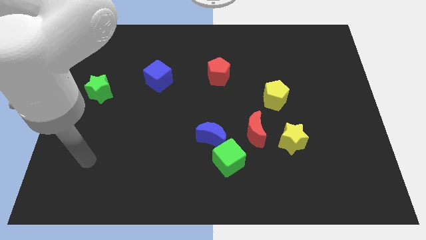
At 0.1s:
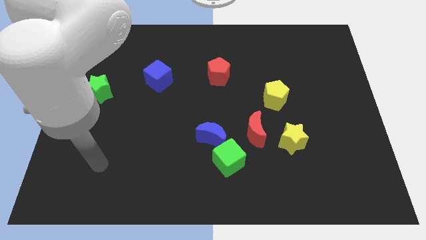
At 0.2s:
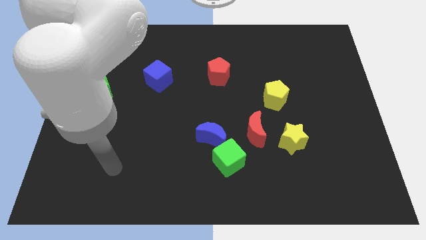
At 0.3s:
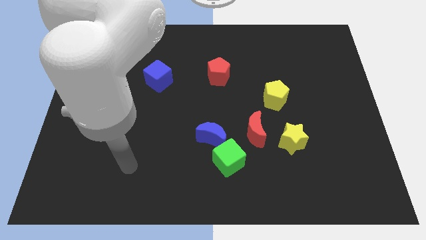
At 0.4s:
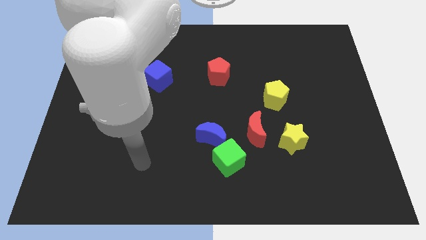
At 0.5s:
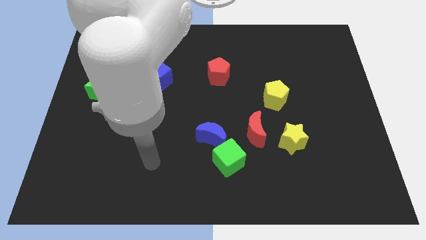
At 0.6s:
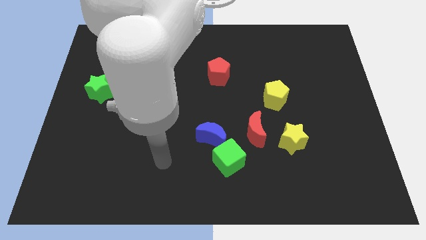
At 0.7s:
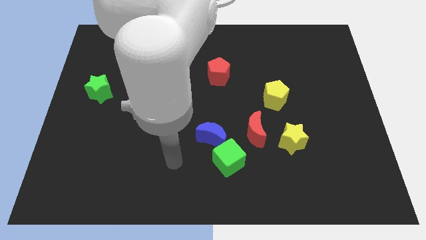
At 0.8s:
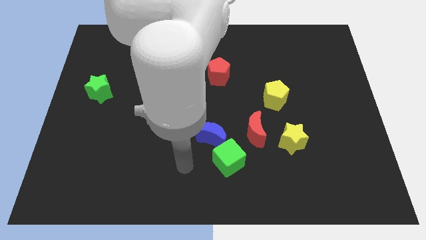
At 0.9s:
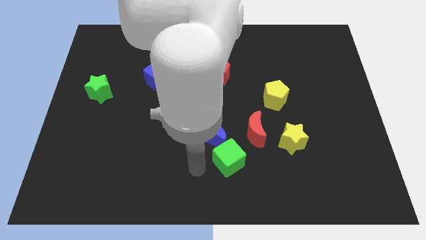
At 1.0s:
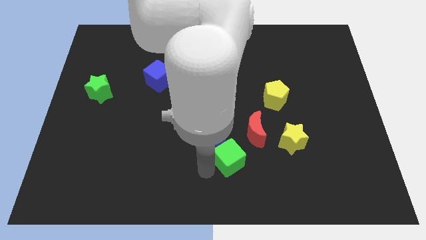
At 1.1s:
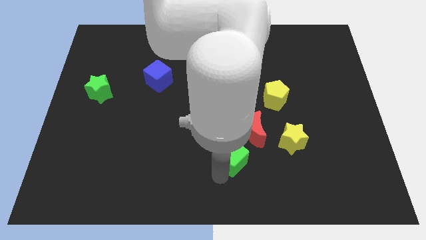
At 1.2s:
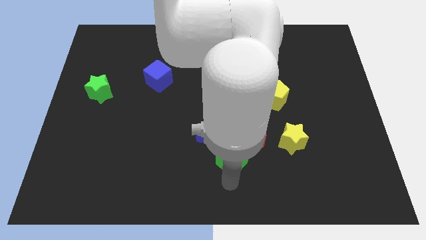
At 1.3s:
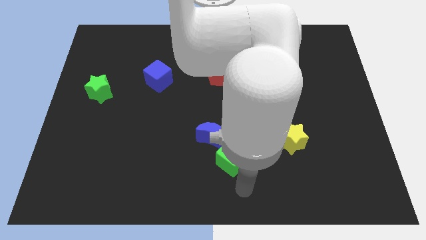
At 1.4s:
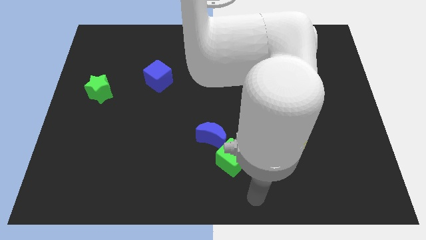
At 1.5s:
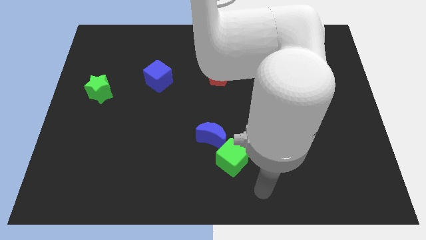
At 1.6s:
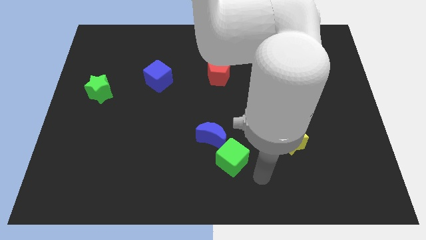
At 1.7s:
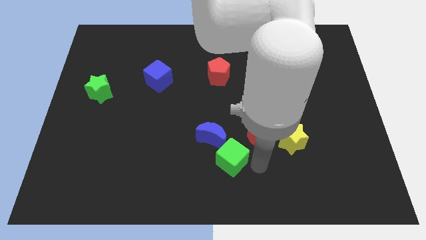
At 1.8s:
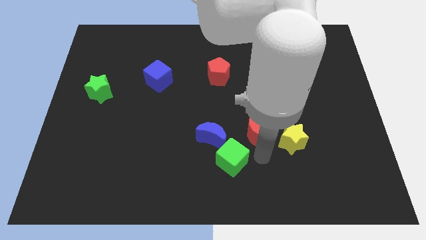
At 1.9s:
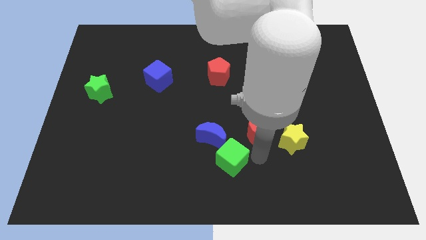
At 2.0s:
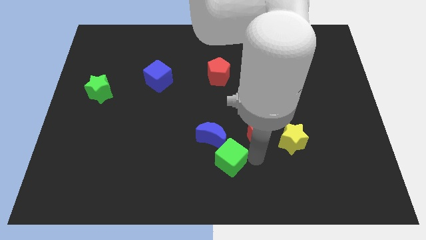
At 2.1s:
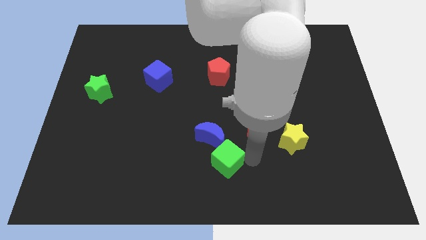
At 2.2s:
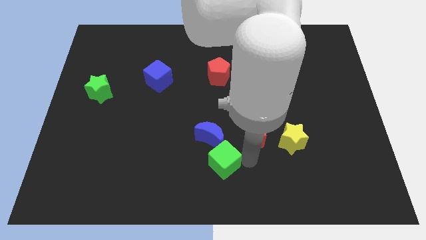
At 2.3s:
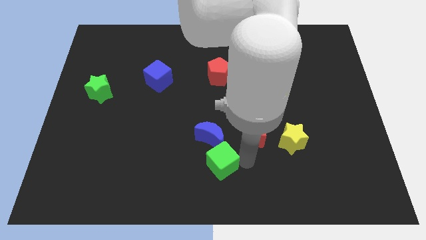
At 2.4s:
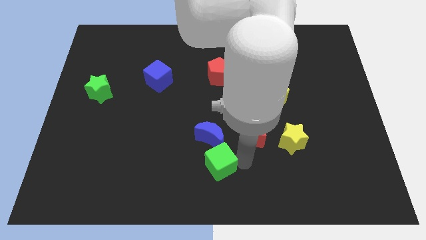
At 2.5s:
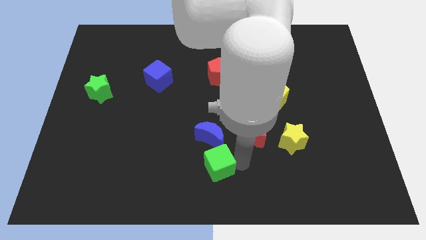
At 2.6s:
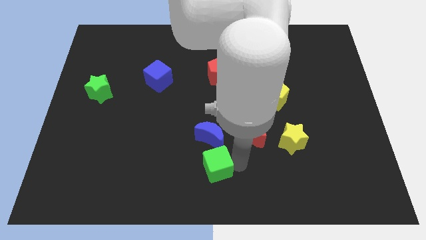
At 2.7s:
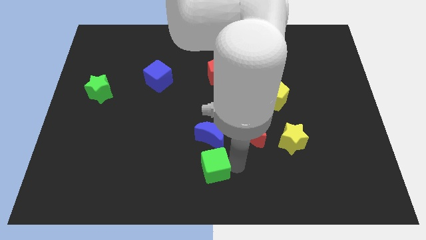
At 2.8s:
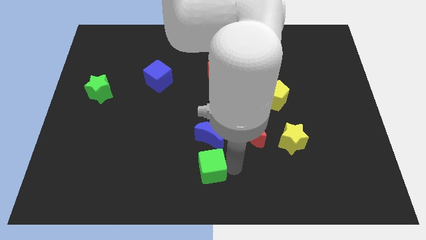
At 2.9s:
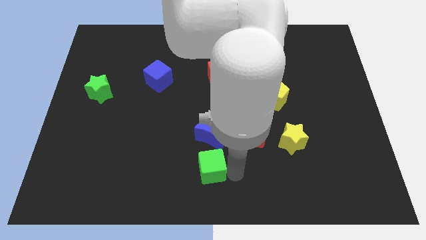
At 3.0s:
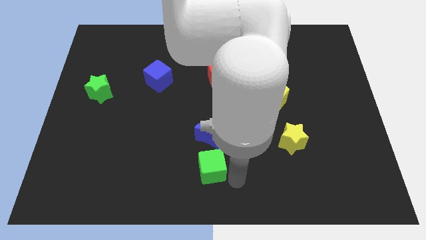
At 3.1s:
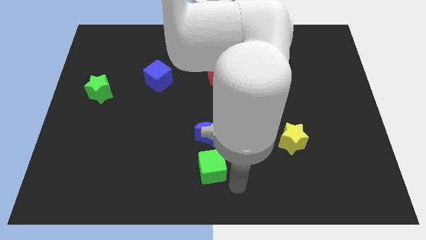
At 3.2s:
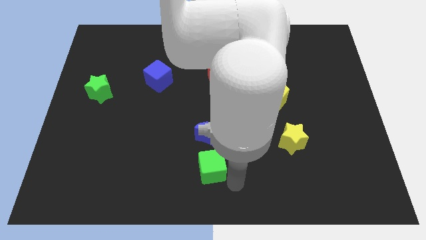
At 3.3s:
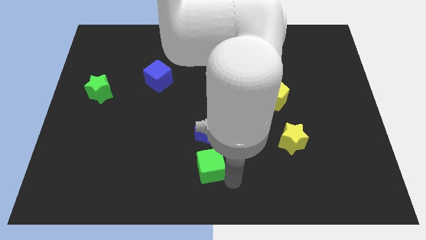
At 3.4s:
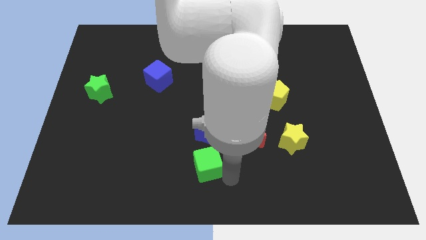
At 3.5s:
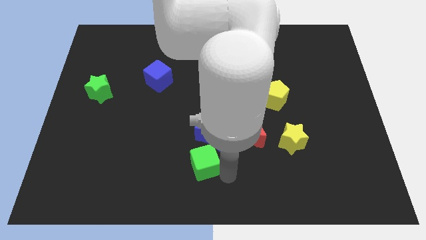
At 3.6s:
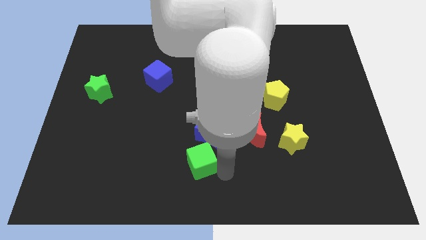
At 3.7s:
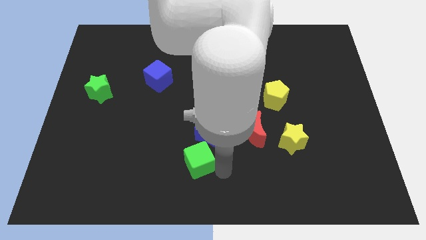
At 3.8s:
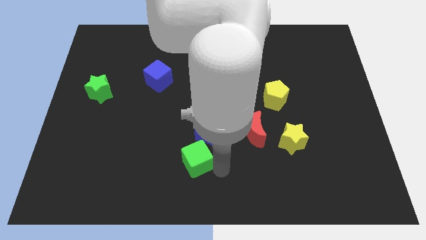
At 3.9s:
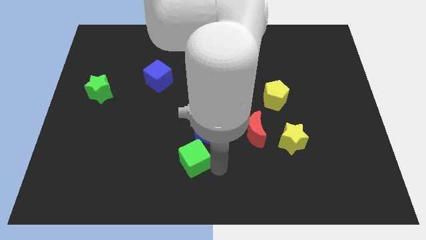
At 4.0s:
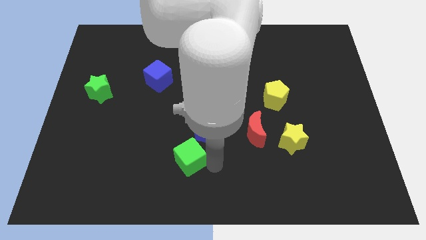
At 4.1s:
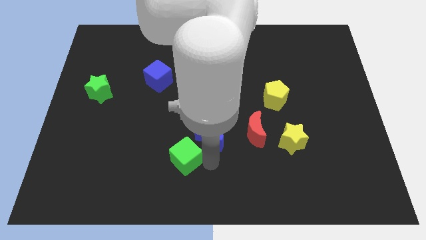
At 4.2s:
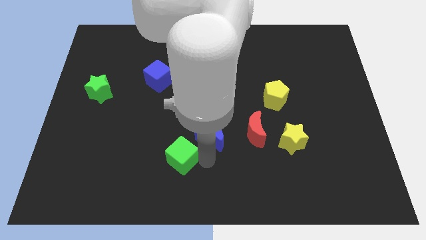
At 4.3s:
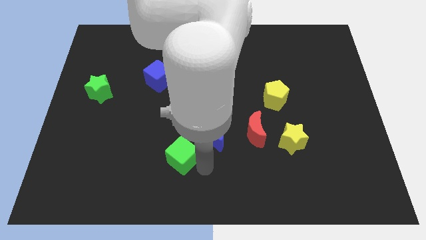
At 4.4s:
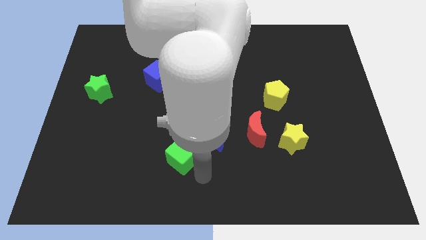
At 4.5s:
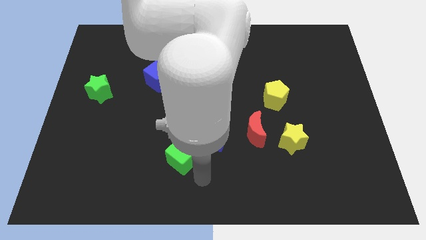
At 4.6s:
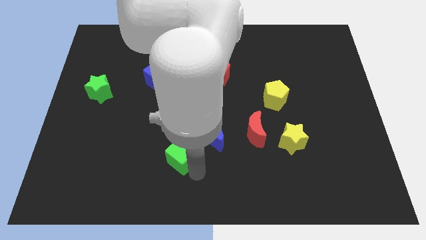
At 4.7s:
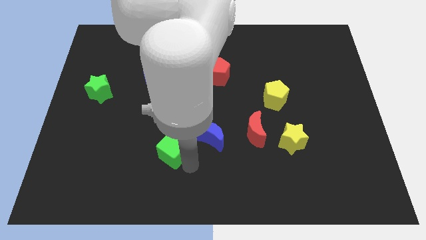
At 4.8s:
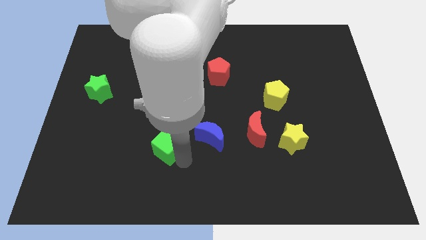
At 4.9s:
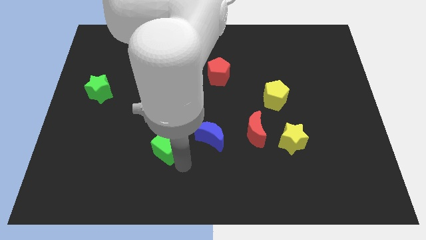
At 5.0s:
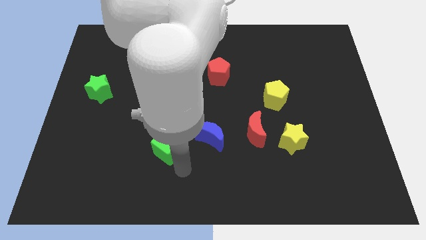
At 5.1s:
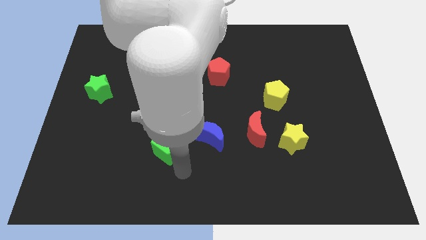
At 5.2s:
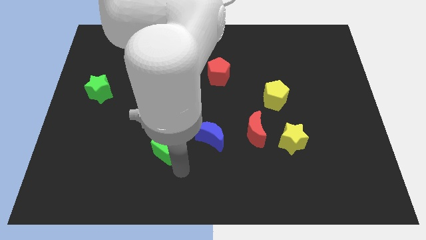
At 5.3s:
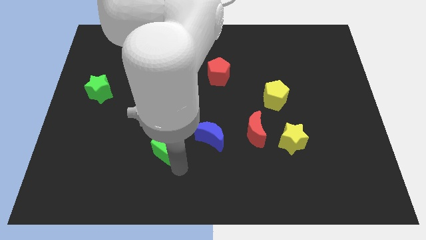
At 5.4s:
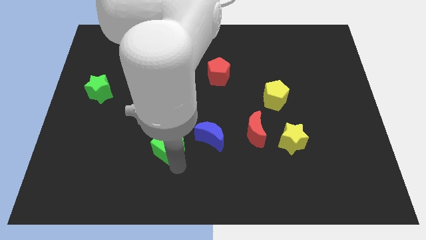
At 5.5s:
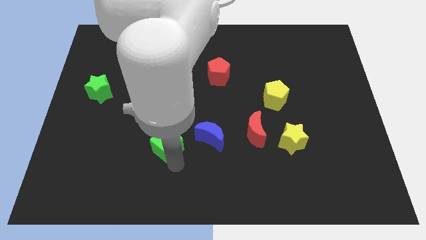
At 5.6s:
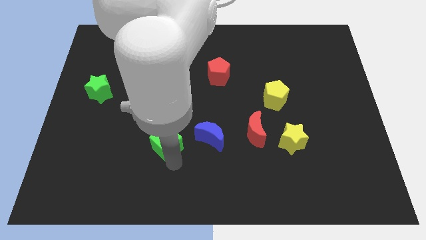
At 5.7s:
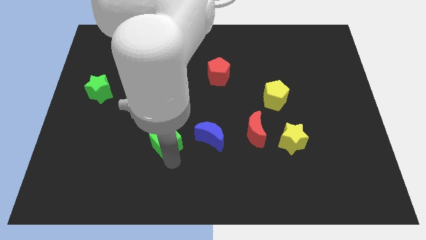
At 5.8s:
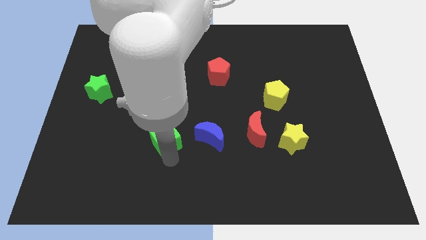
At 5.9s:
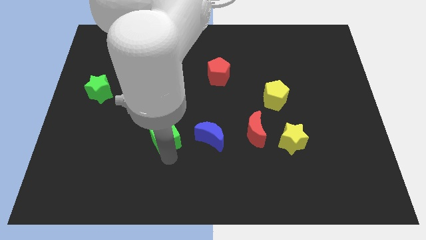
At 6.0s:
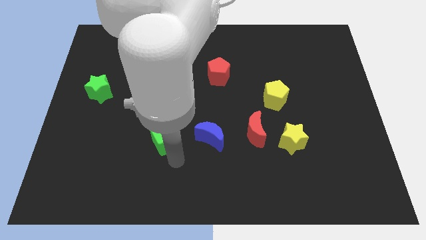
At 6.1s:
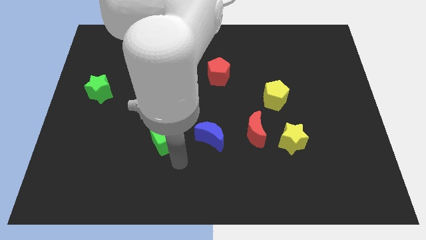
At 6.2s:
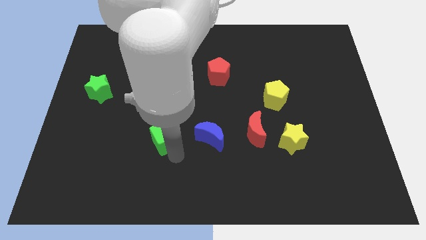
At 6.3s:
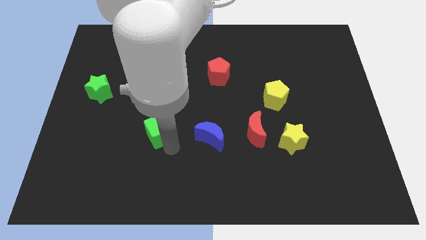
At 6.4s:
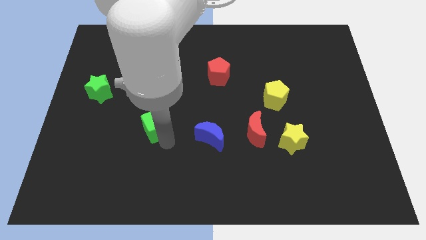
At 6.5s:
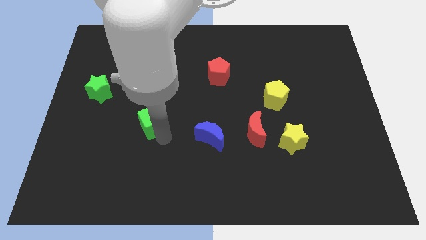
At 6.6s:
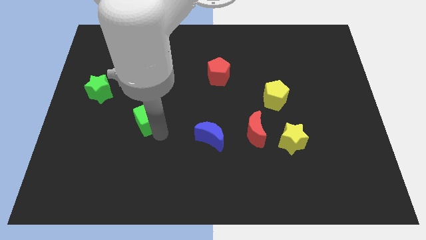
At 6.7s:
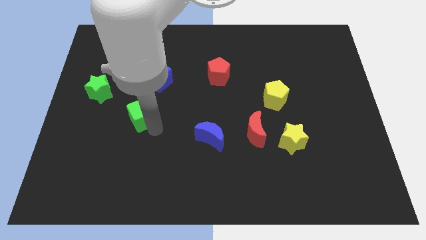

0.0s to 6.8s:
move the green cube up and then to the left

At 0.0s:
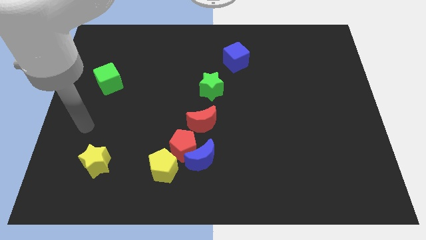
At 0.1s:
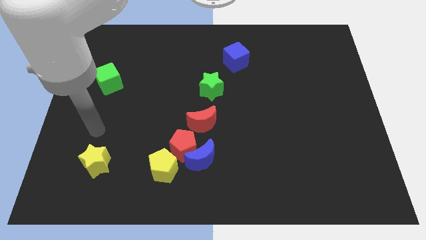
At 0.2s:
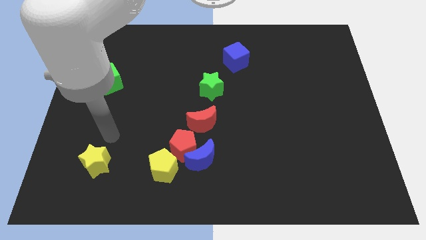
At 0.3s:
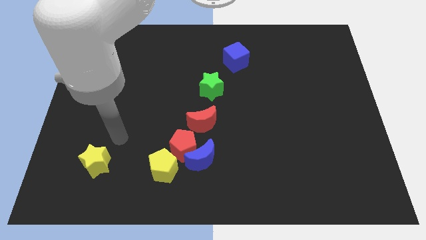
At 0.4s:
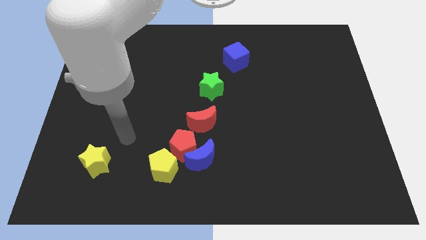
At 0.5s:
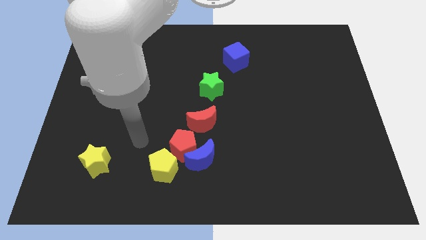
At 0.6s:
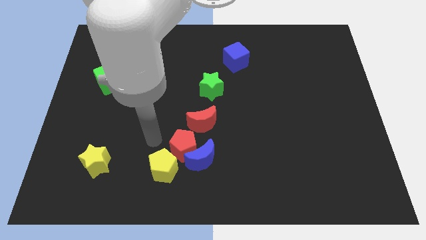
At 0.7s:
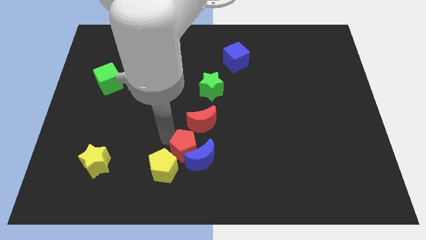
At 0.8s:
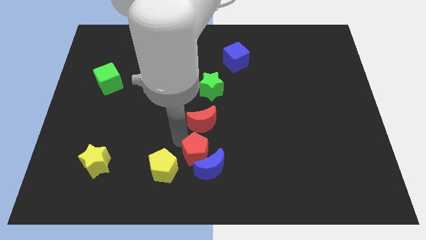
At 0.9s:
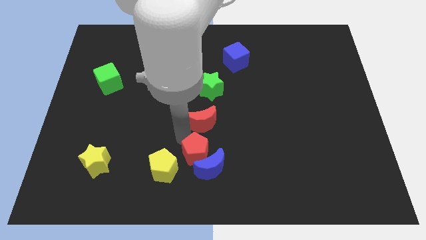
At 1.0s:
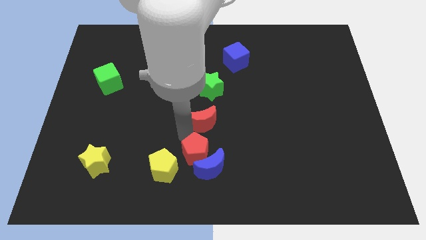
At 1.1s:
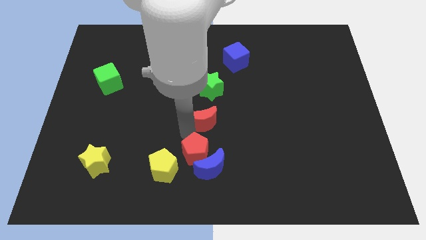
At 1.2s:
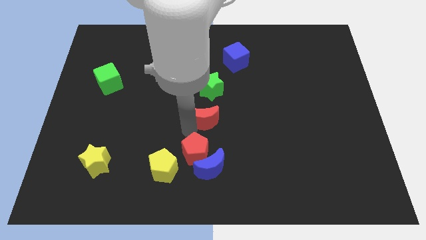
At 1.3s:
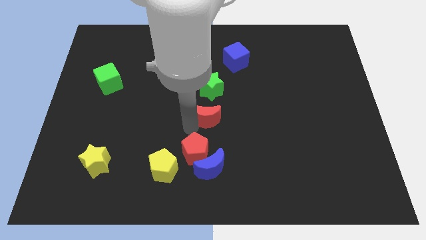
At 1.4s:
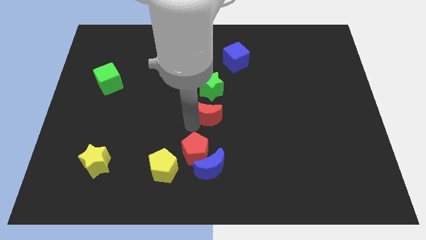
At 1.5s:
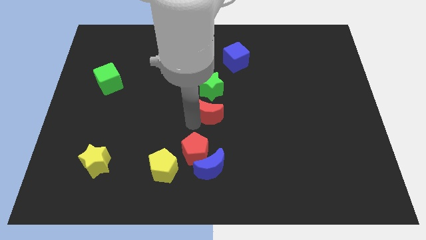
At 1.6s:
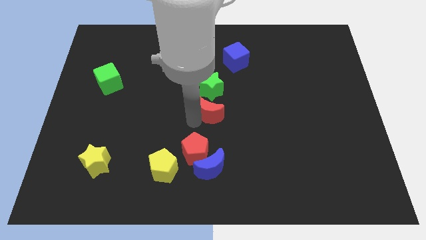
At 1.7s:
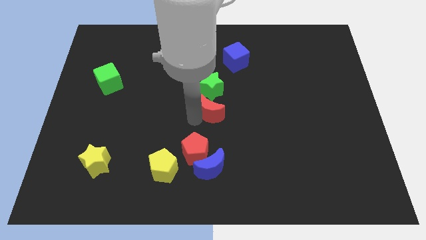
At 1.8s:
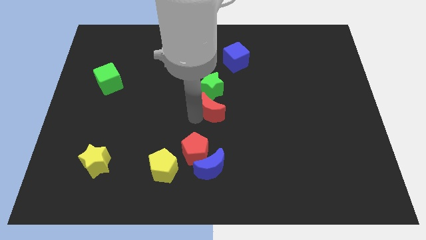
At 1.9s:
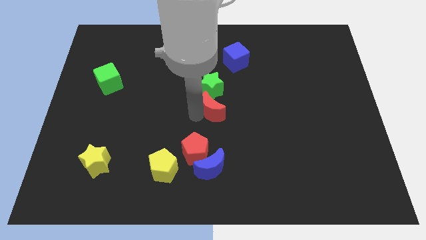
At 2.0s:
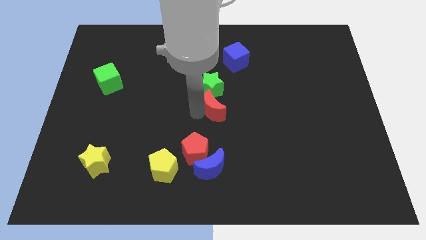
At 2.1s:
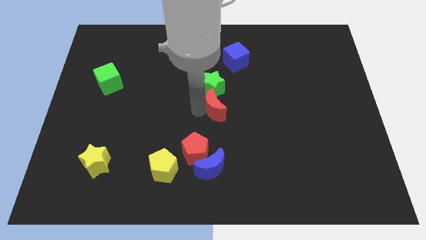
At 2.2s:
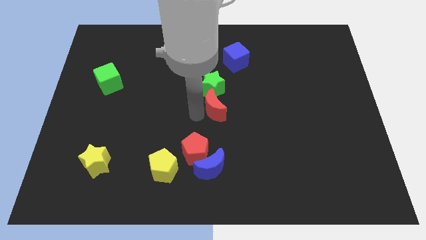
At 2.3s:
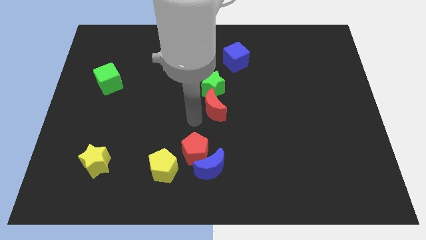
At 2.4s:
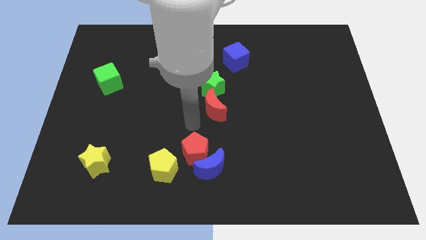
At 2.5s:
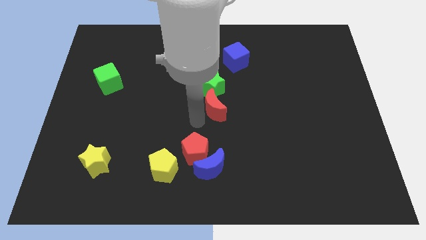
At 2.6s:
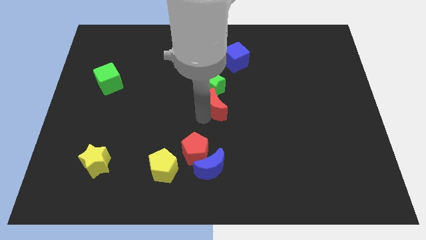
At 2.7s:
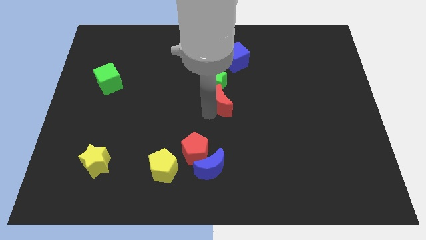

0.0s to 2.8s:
push the red moon a little bit up and right diagonally
